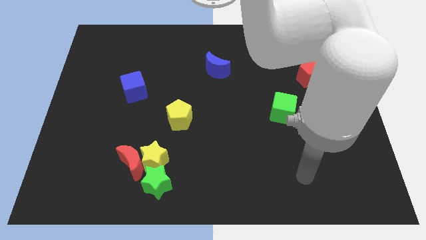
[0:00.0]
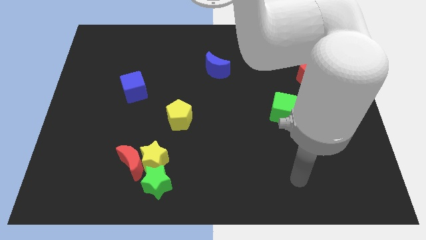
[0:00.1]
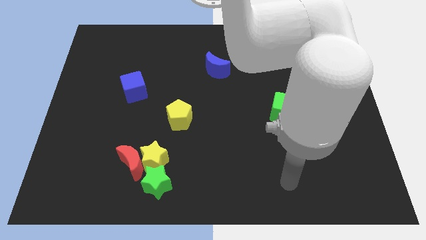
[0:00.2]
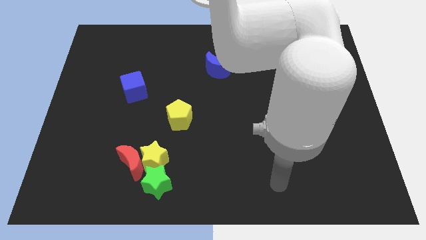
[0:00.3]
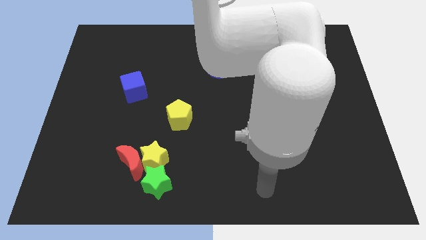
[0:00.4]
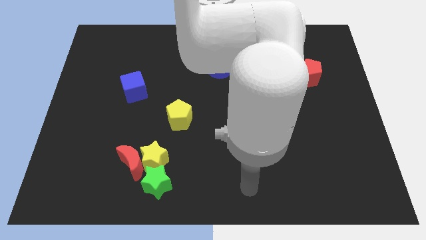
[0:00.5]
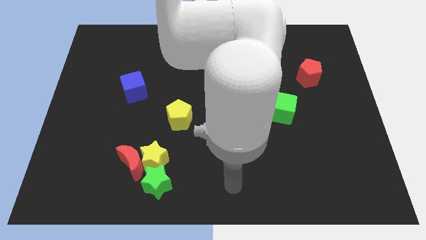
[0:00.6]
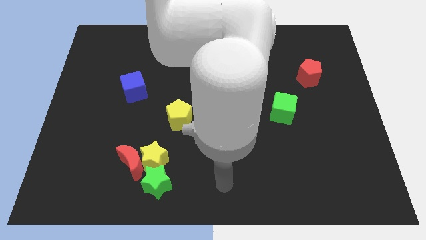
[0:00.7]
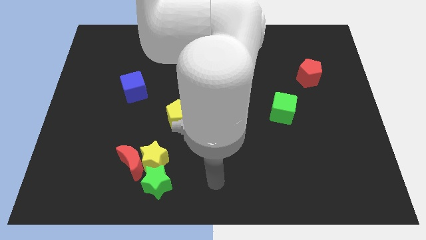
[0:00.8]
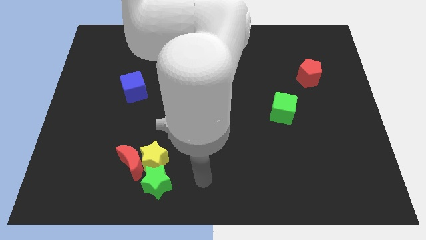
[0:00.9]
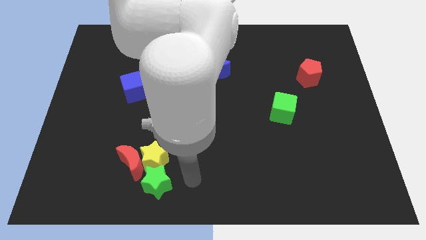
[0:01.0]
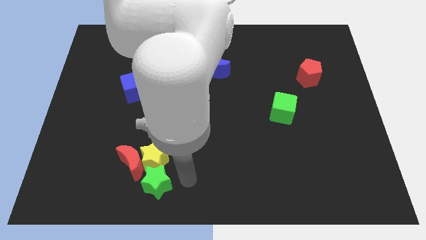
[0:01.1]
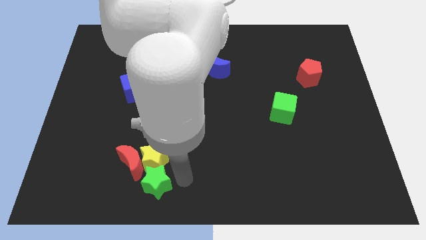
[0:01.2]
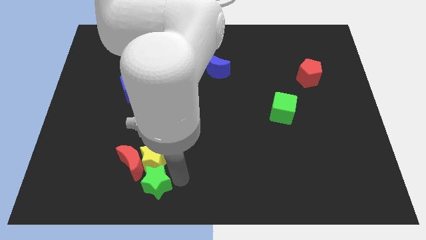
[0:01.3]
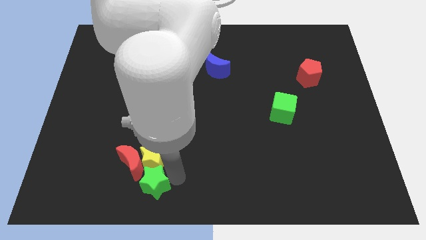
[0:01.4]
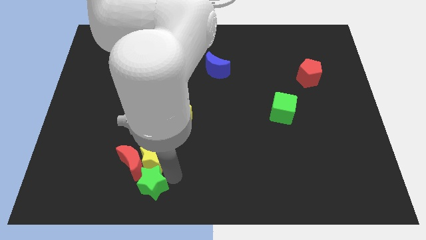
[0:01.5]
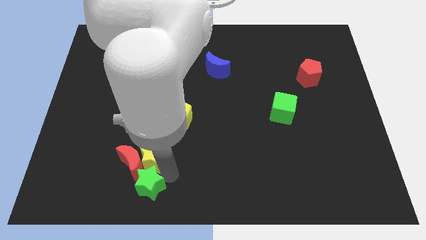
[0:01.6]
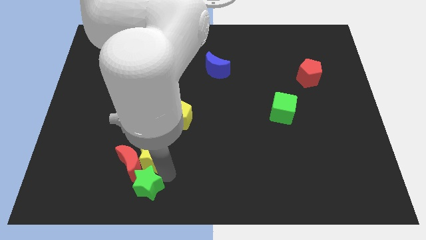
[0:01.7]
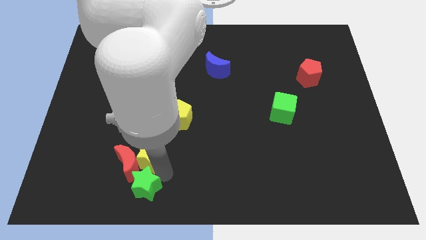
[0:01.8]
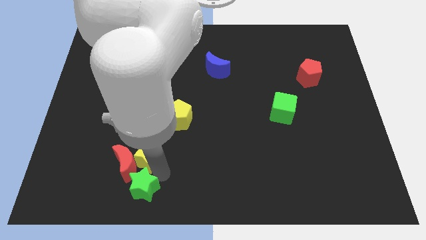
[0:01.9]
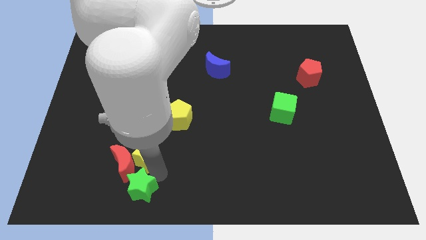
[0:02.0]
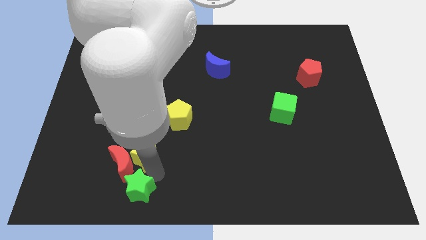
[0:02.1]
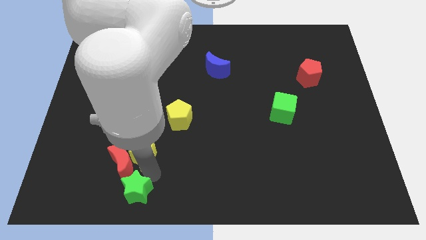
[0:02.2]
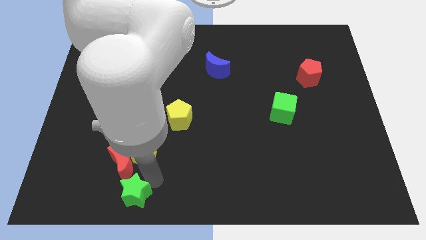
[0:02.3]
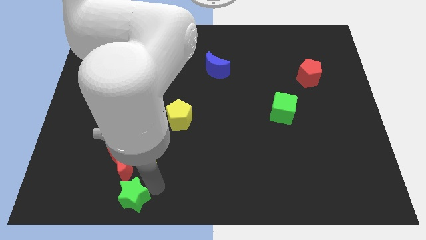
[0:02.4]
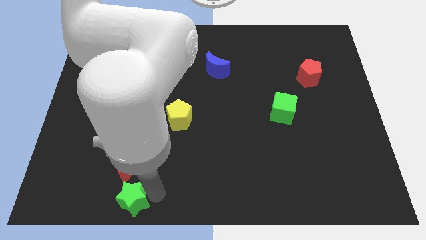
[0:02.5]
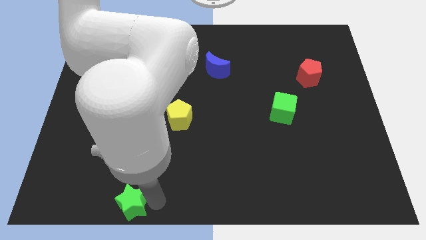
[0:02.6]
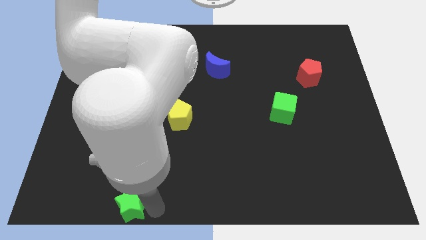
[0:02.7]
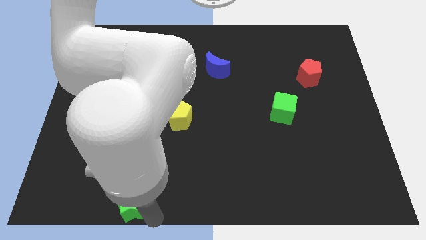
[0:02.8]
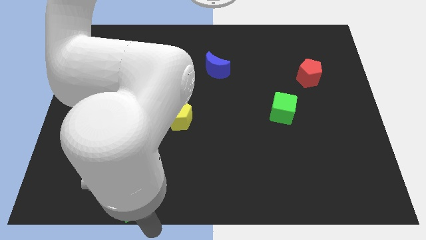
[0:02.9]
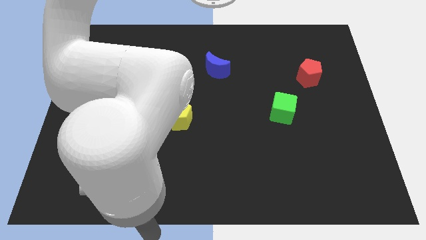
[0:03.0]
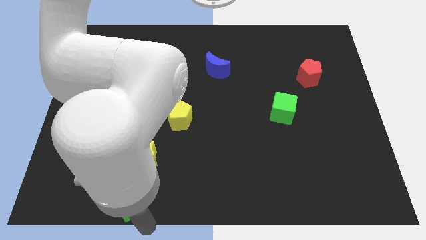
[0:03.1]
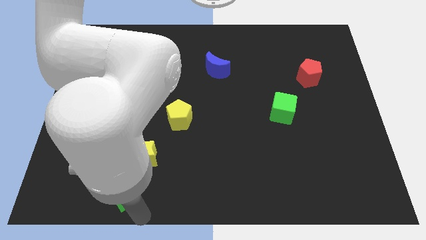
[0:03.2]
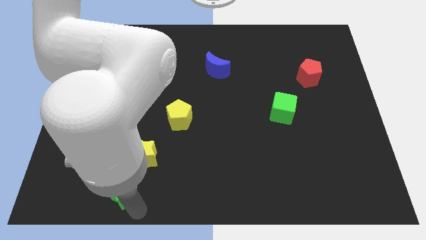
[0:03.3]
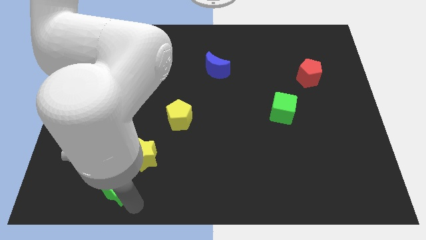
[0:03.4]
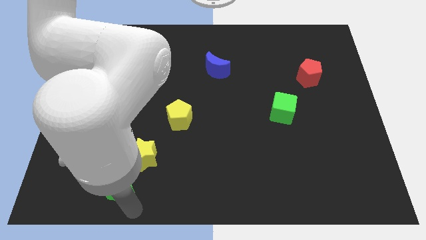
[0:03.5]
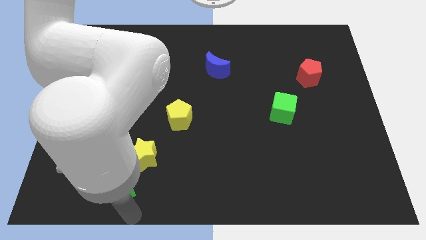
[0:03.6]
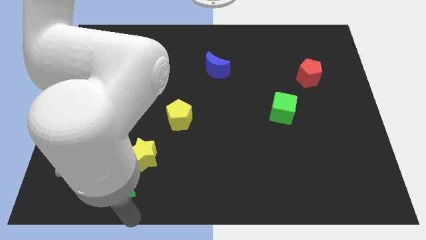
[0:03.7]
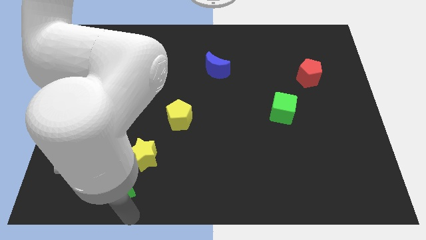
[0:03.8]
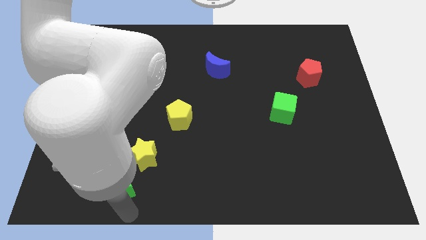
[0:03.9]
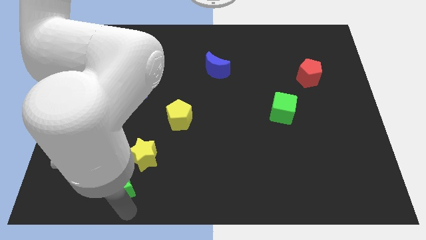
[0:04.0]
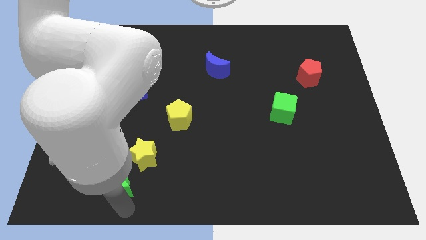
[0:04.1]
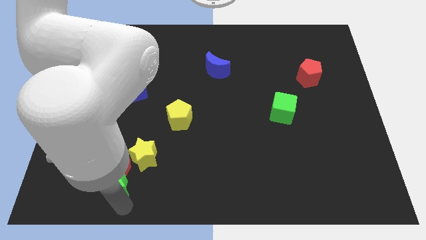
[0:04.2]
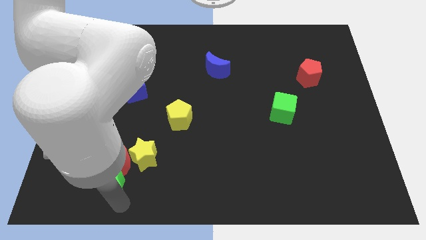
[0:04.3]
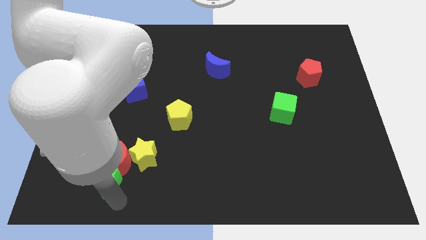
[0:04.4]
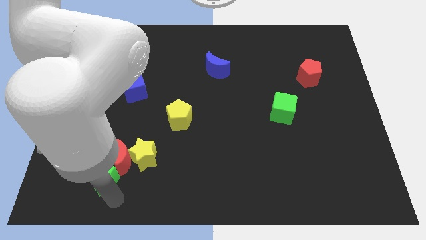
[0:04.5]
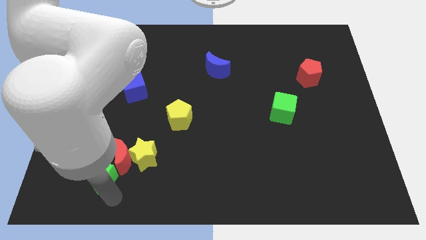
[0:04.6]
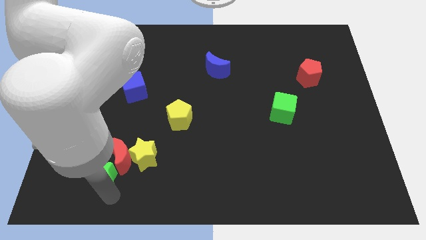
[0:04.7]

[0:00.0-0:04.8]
push the green star a bit diagonally upwards and to the left

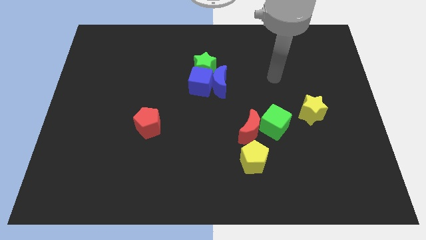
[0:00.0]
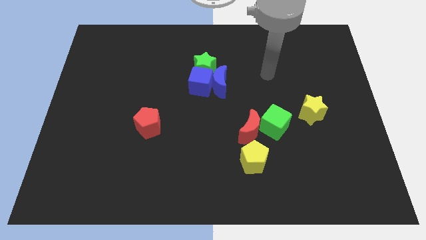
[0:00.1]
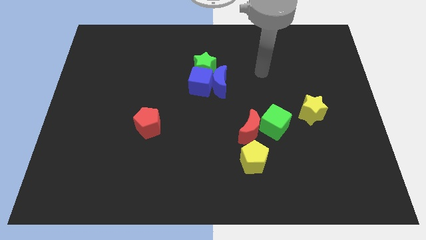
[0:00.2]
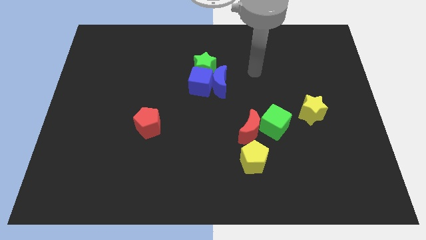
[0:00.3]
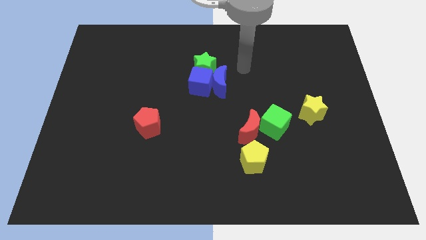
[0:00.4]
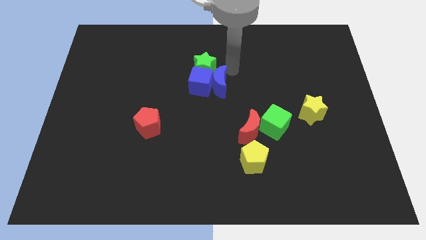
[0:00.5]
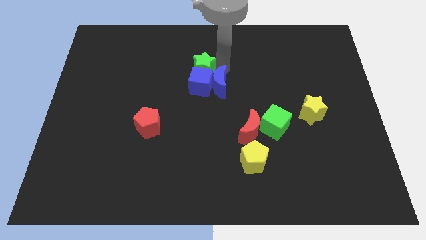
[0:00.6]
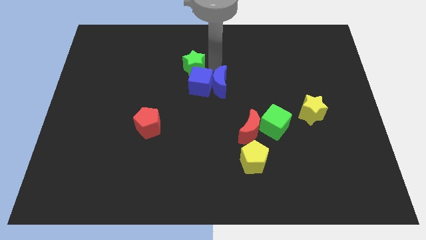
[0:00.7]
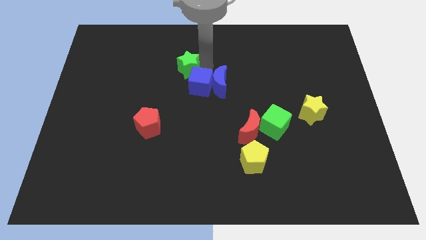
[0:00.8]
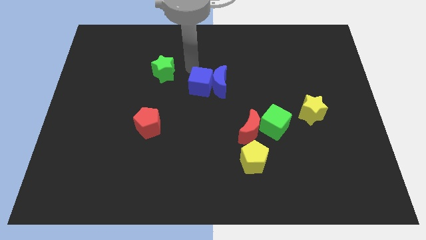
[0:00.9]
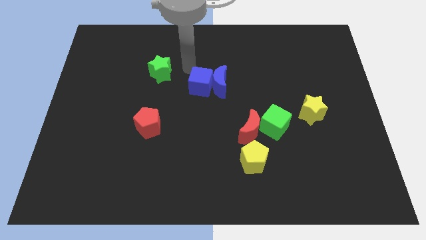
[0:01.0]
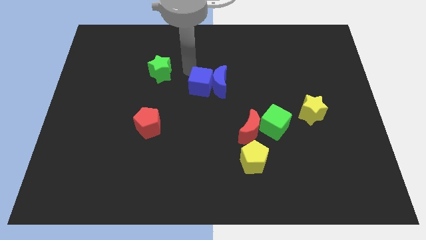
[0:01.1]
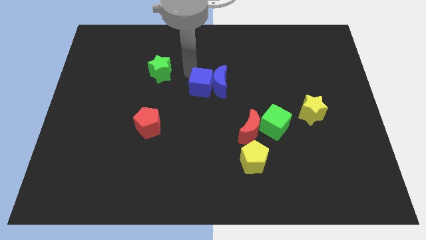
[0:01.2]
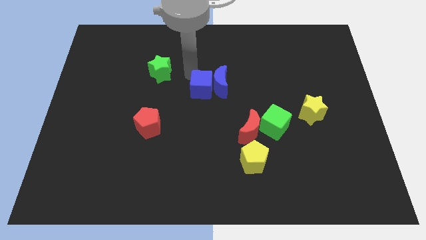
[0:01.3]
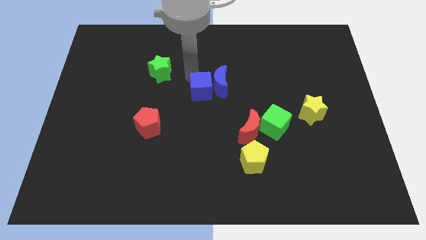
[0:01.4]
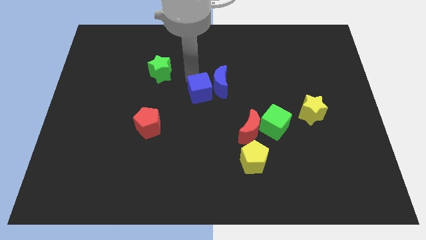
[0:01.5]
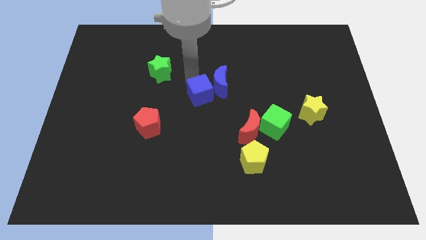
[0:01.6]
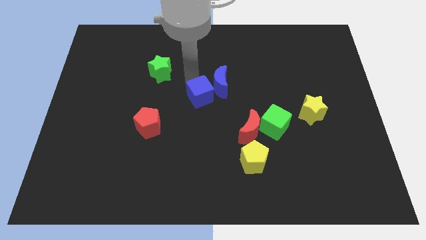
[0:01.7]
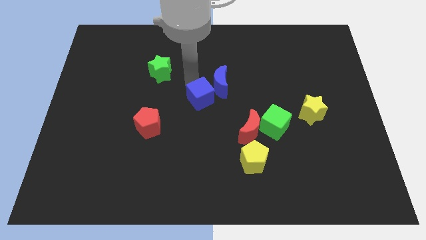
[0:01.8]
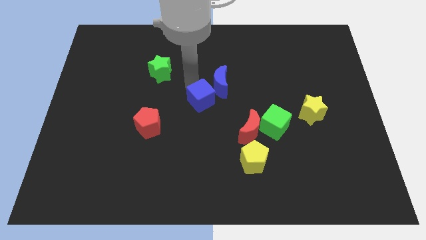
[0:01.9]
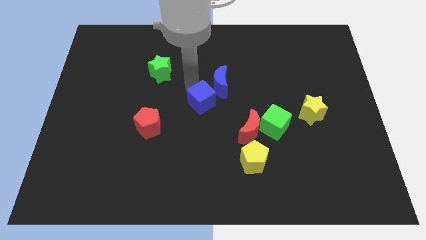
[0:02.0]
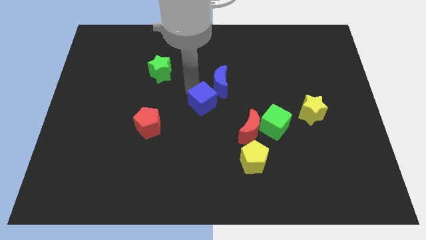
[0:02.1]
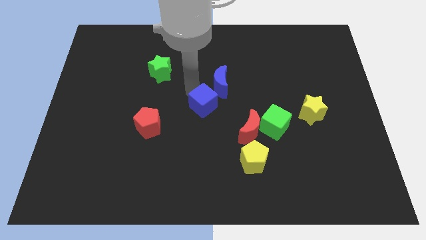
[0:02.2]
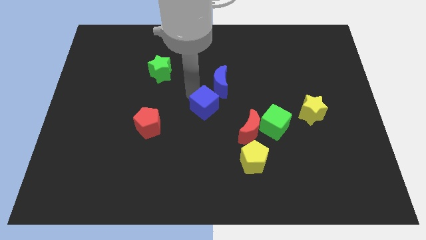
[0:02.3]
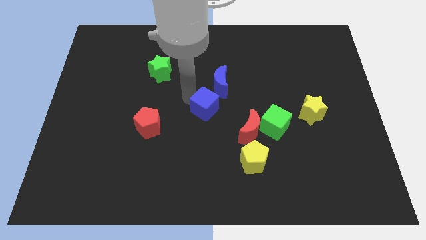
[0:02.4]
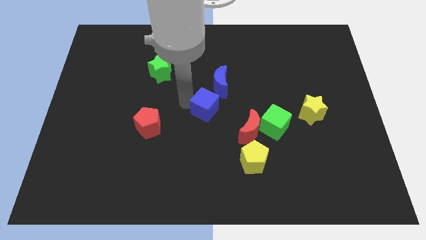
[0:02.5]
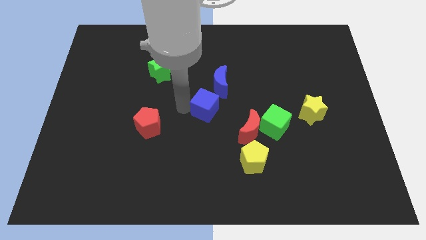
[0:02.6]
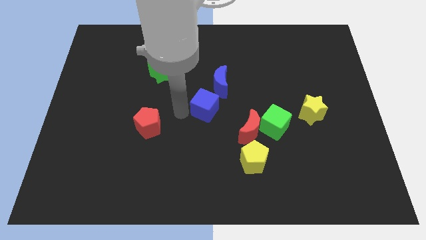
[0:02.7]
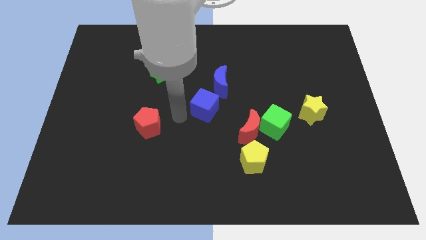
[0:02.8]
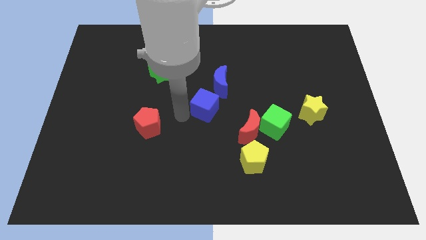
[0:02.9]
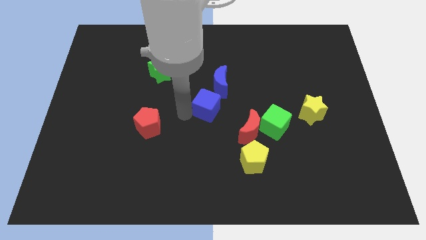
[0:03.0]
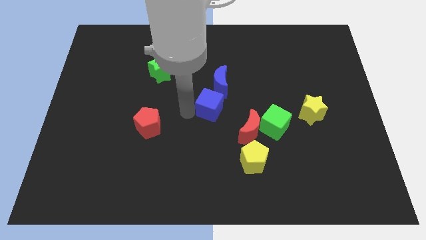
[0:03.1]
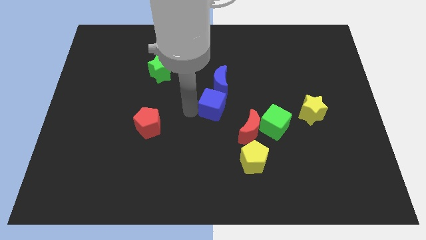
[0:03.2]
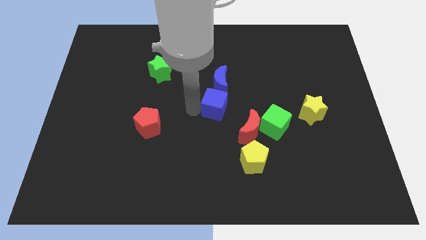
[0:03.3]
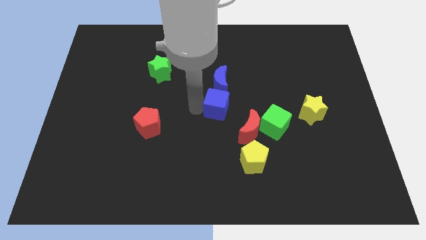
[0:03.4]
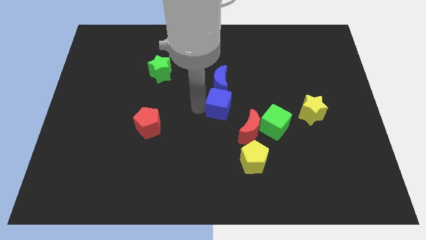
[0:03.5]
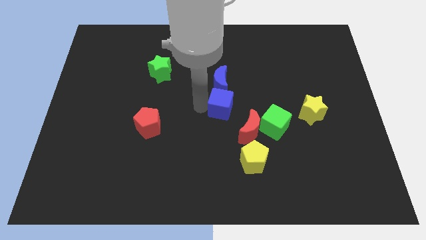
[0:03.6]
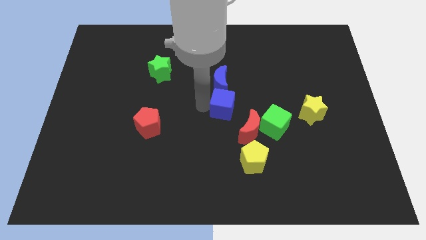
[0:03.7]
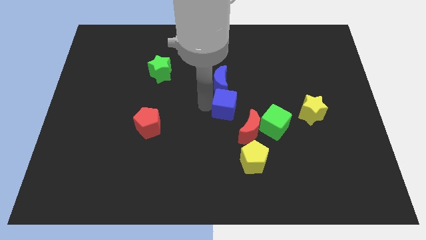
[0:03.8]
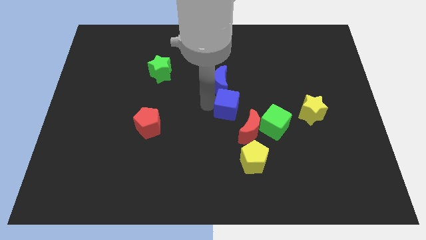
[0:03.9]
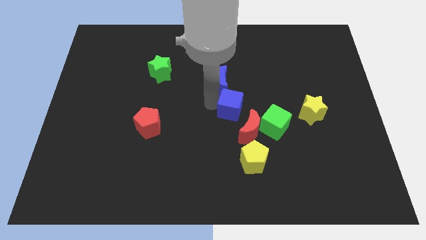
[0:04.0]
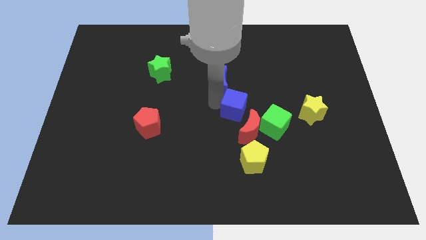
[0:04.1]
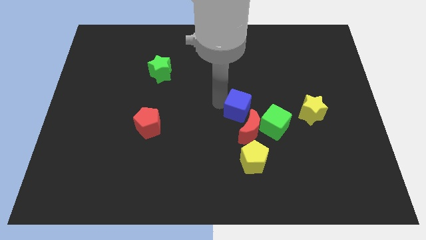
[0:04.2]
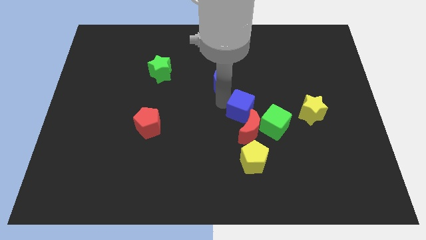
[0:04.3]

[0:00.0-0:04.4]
slide the blue cube to the right a bit
